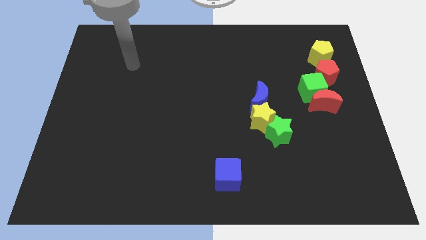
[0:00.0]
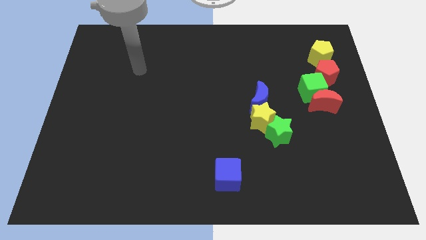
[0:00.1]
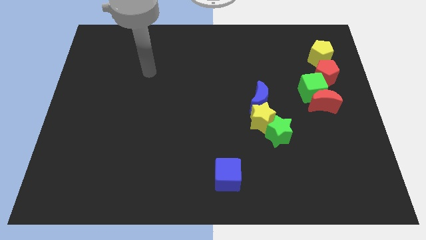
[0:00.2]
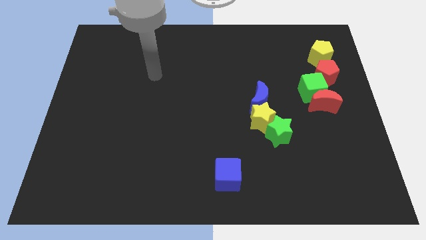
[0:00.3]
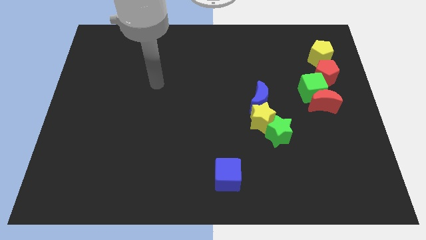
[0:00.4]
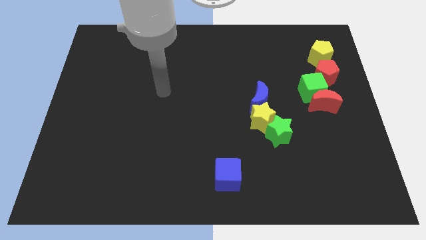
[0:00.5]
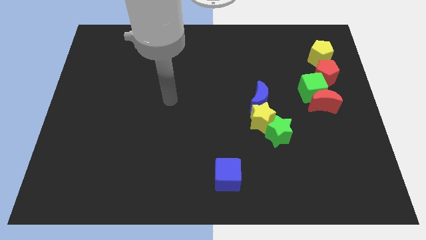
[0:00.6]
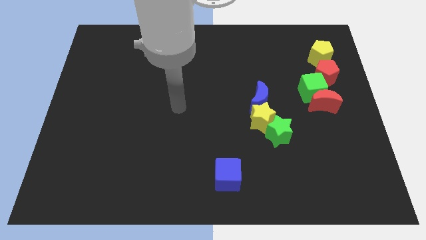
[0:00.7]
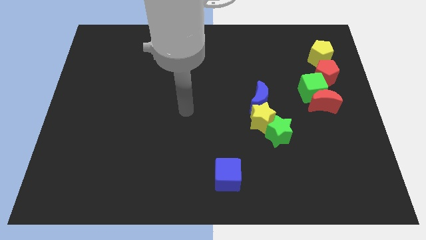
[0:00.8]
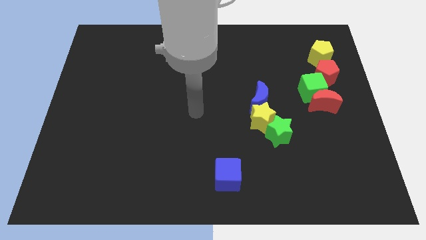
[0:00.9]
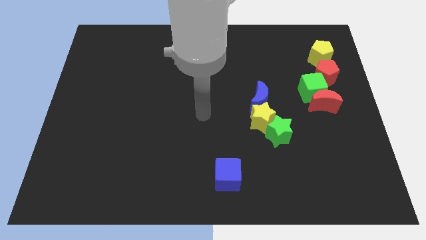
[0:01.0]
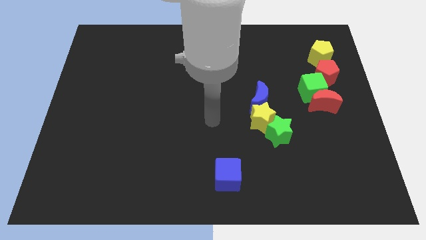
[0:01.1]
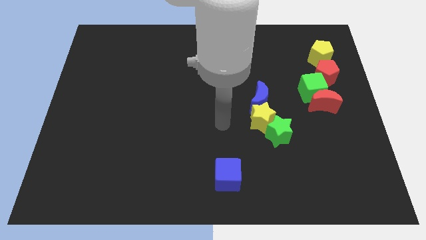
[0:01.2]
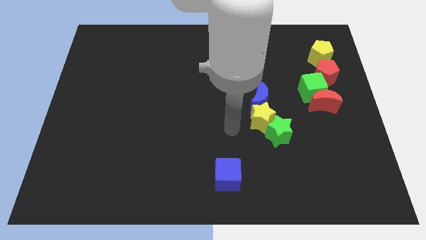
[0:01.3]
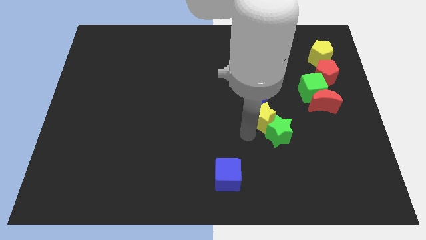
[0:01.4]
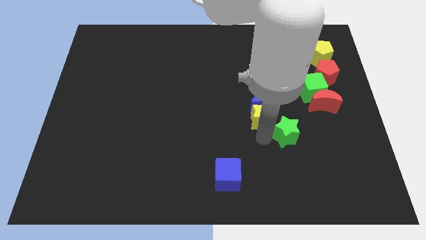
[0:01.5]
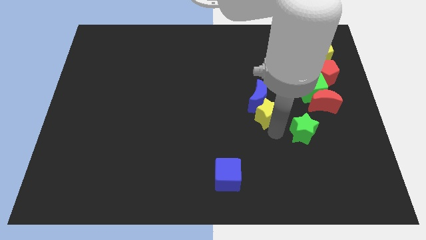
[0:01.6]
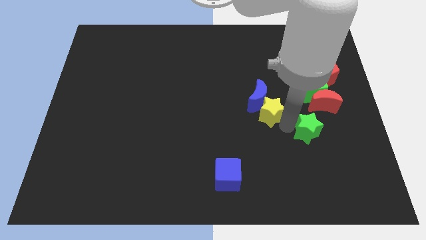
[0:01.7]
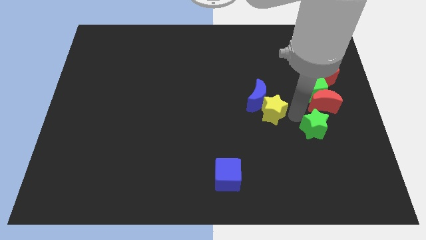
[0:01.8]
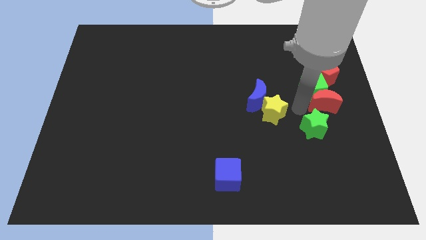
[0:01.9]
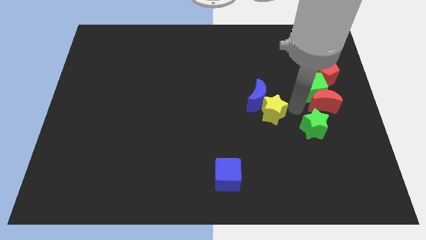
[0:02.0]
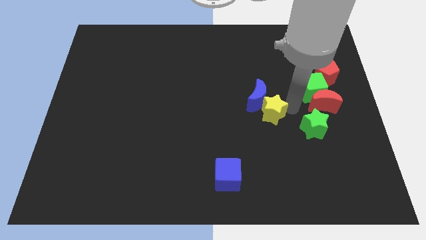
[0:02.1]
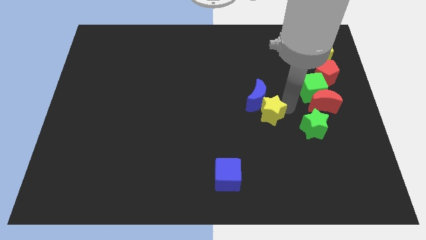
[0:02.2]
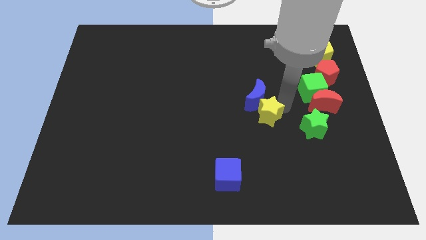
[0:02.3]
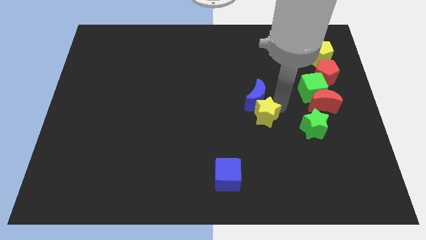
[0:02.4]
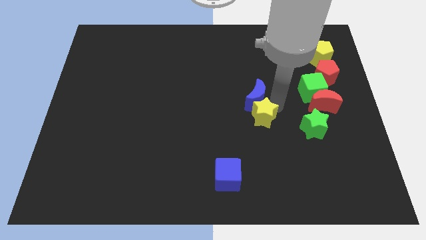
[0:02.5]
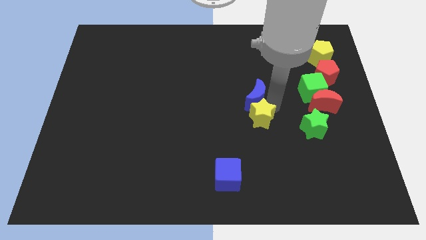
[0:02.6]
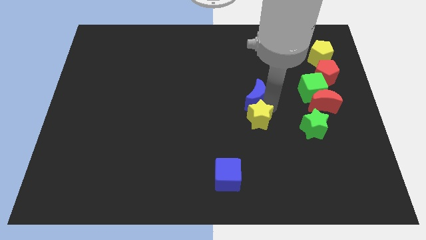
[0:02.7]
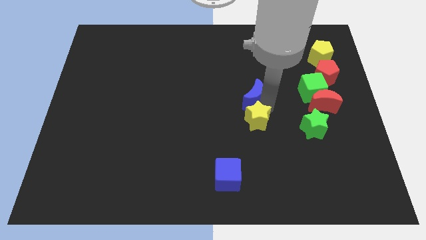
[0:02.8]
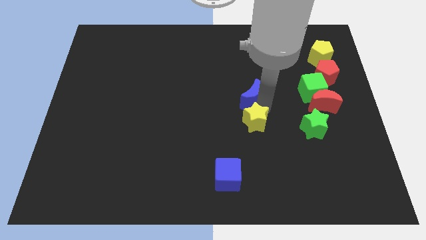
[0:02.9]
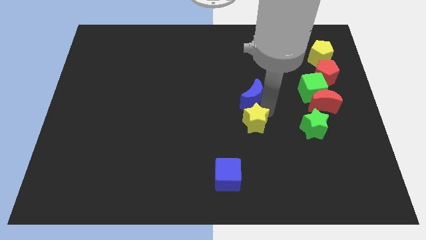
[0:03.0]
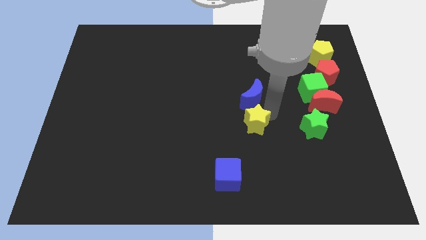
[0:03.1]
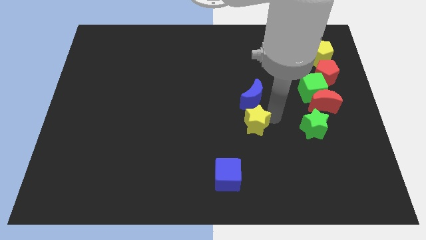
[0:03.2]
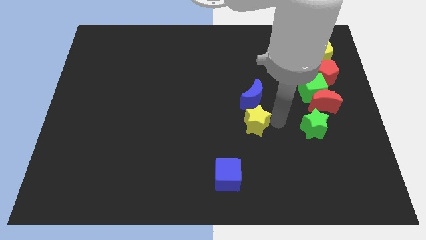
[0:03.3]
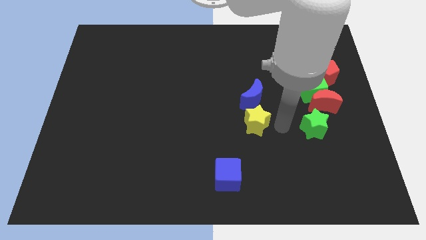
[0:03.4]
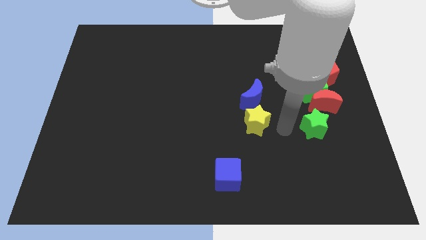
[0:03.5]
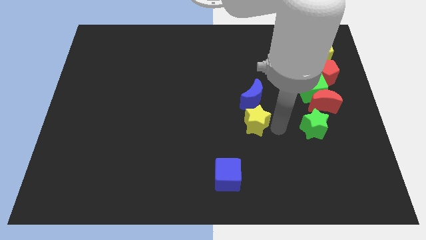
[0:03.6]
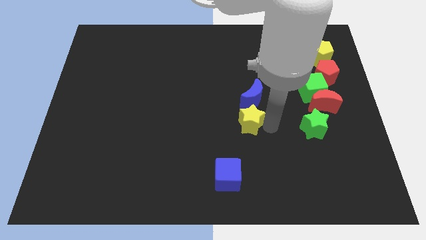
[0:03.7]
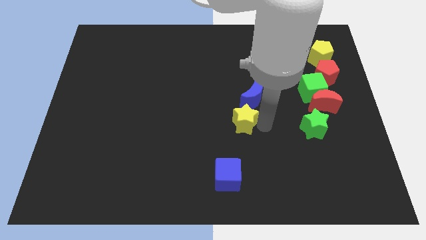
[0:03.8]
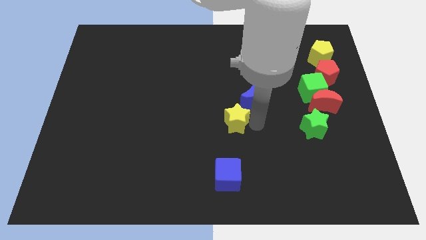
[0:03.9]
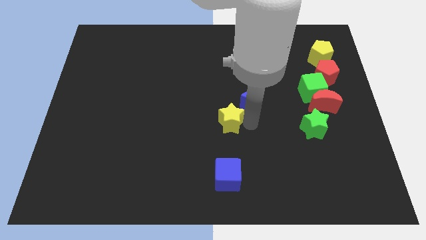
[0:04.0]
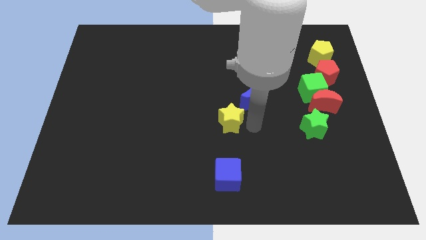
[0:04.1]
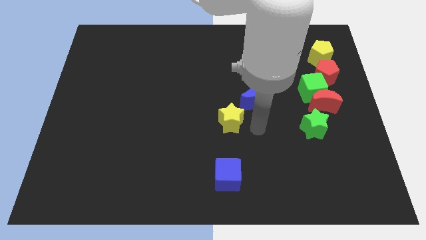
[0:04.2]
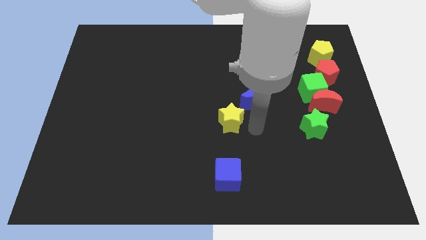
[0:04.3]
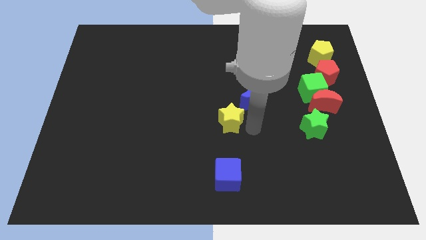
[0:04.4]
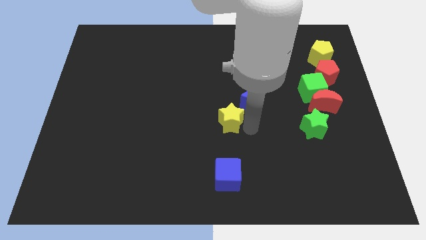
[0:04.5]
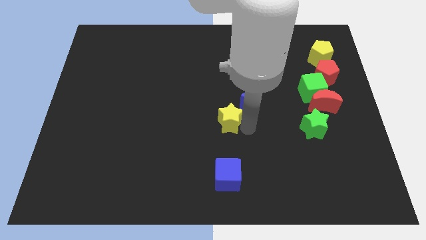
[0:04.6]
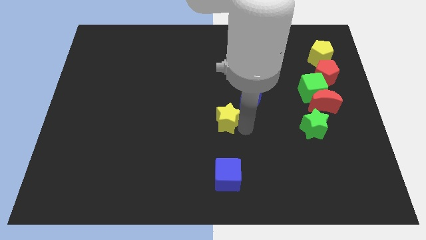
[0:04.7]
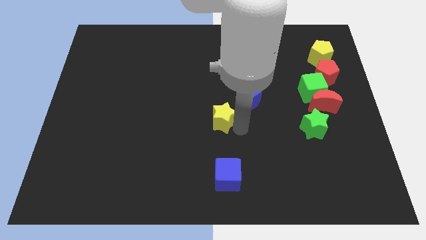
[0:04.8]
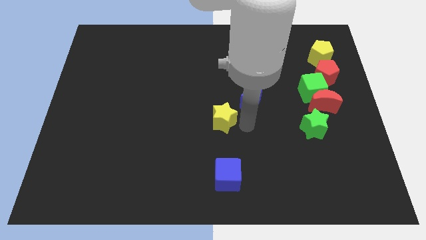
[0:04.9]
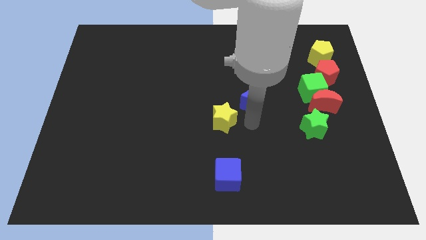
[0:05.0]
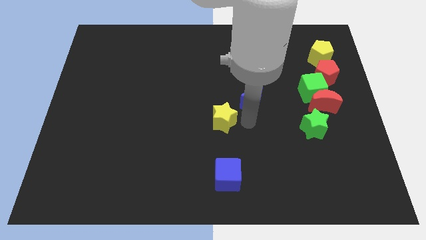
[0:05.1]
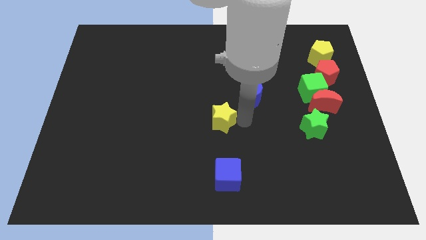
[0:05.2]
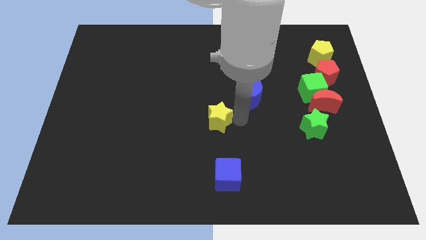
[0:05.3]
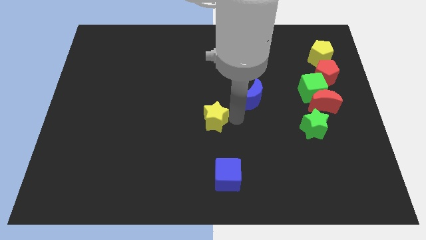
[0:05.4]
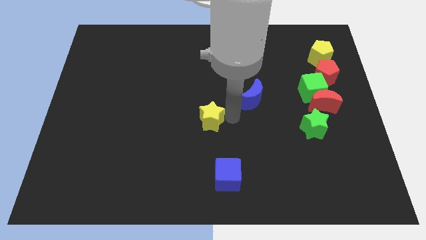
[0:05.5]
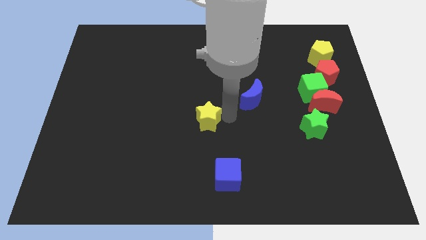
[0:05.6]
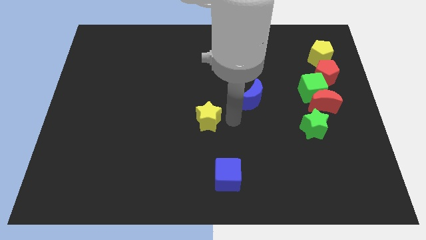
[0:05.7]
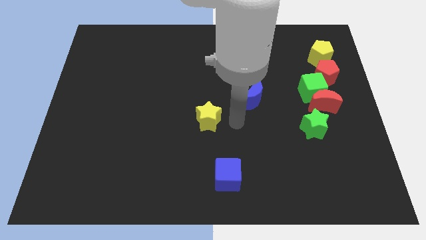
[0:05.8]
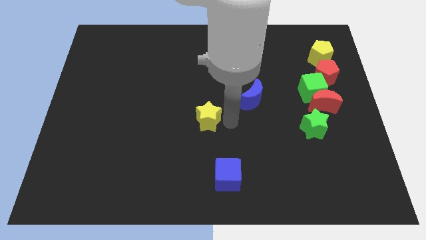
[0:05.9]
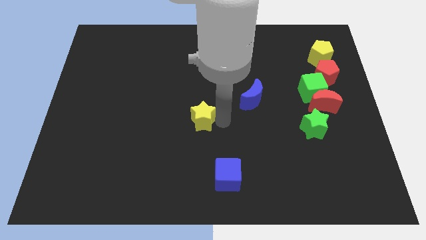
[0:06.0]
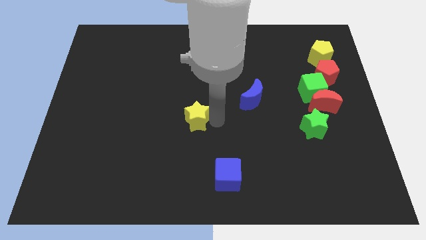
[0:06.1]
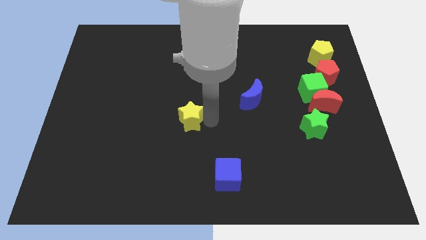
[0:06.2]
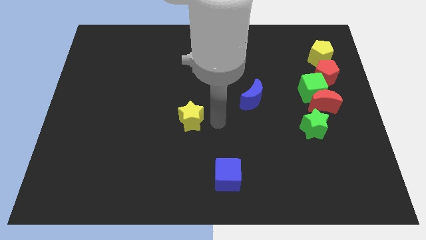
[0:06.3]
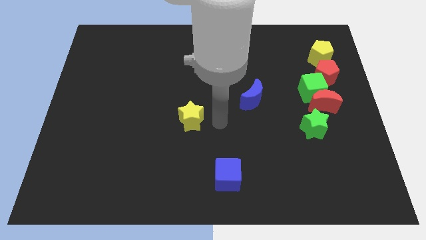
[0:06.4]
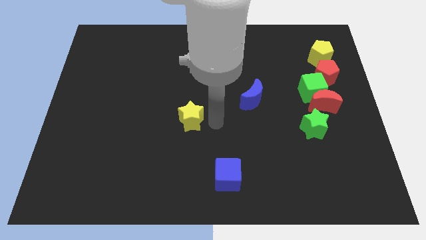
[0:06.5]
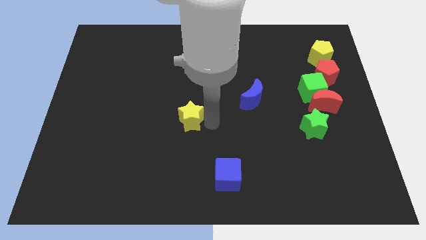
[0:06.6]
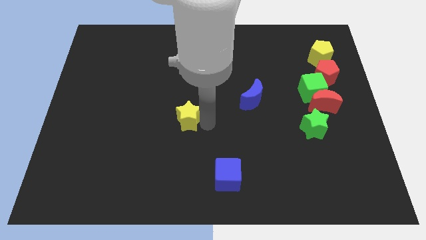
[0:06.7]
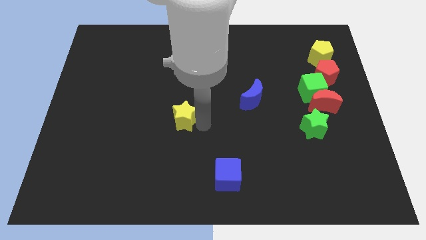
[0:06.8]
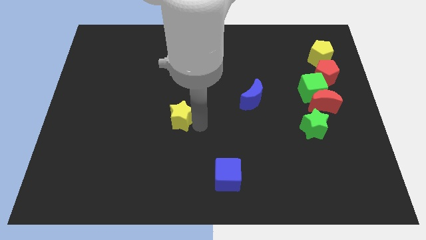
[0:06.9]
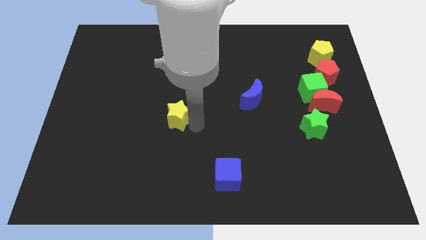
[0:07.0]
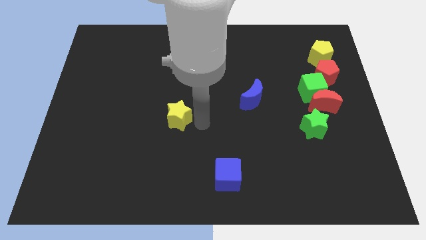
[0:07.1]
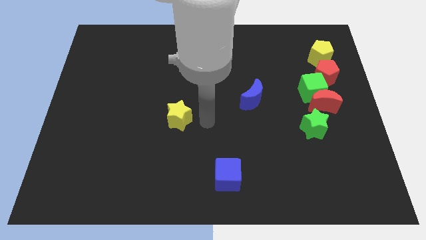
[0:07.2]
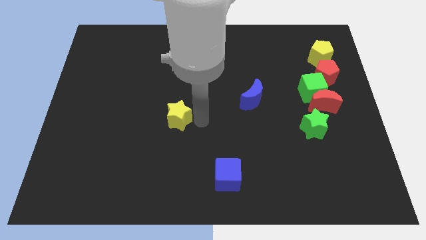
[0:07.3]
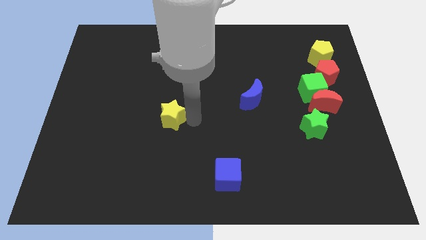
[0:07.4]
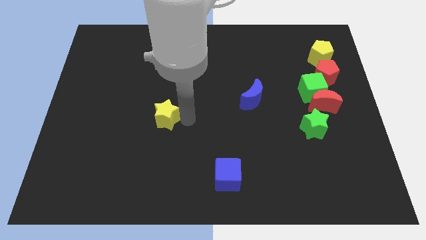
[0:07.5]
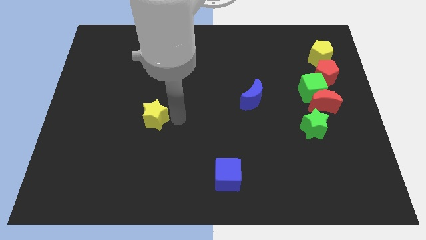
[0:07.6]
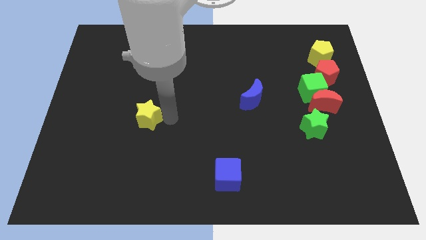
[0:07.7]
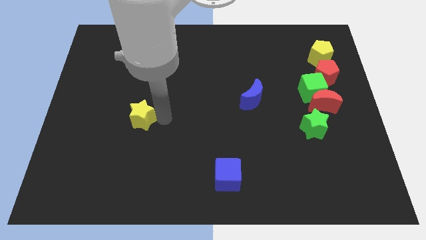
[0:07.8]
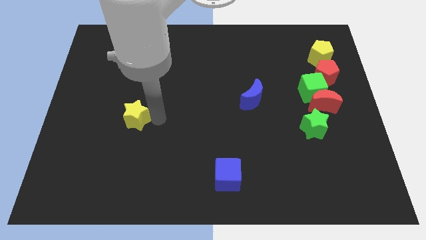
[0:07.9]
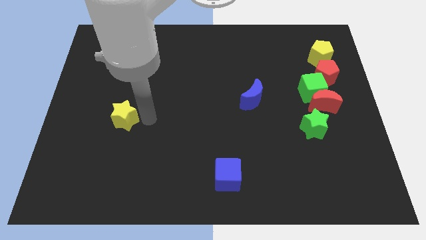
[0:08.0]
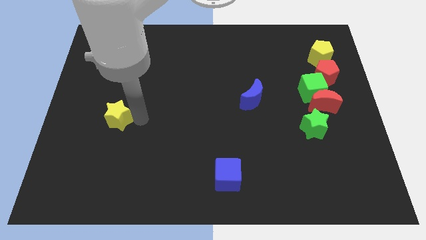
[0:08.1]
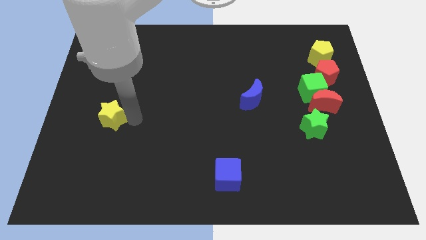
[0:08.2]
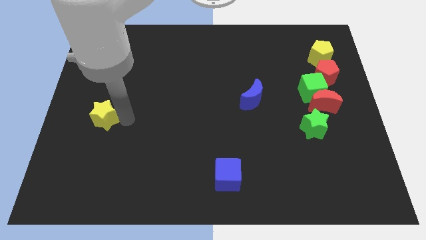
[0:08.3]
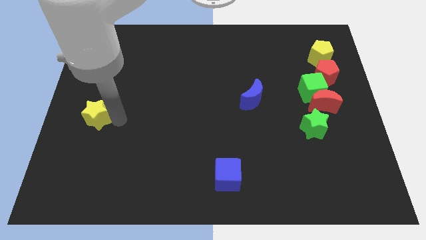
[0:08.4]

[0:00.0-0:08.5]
move the yellow star to the center left
